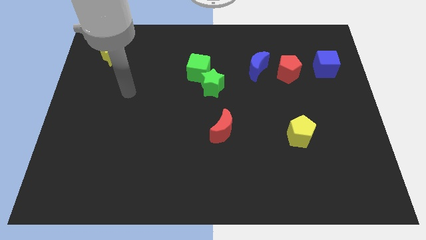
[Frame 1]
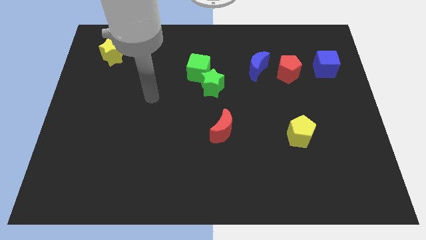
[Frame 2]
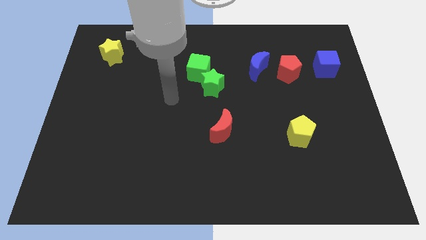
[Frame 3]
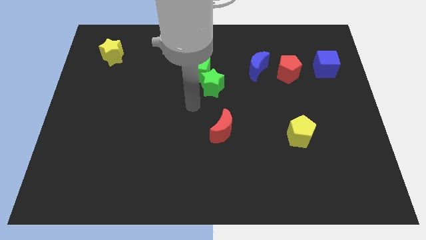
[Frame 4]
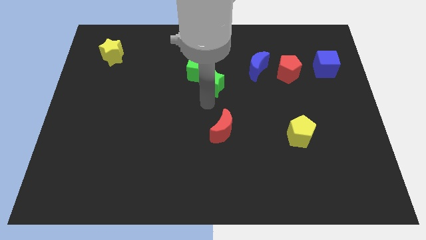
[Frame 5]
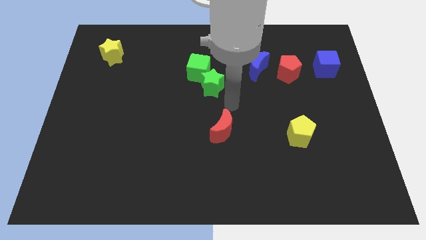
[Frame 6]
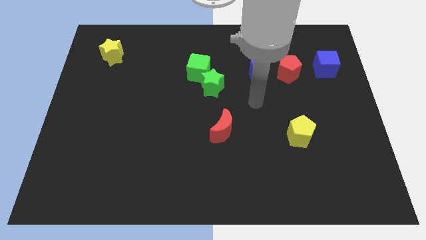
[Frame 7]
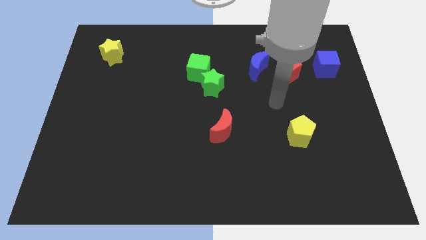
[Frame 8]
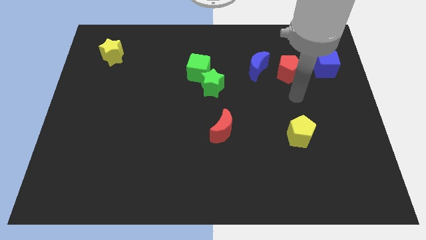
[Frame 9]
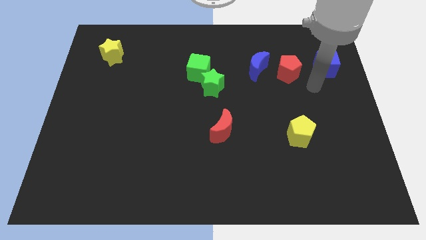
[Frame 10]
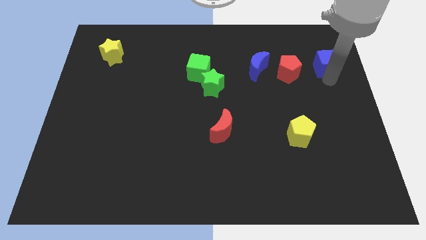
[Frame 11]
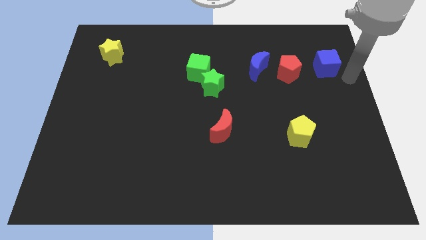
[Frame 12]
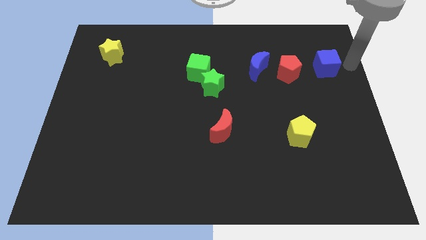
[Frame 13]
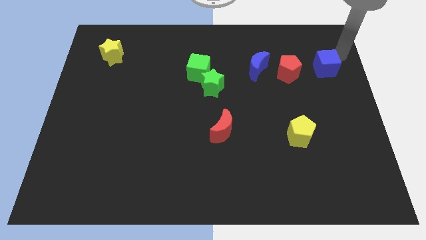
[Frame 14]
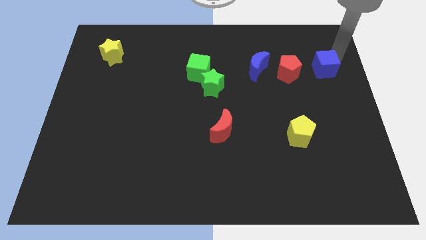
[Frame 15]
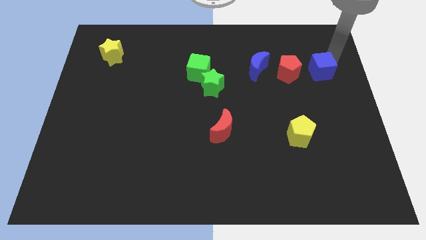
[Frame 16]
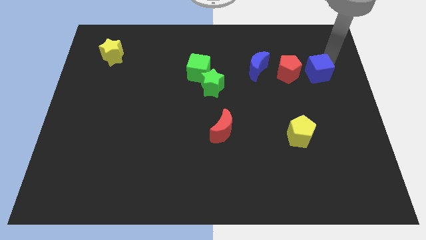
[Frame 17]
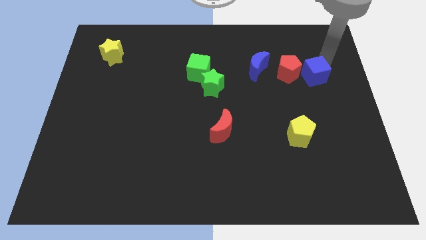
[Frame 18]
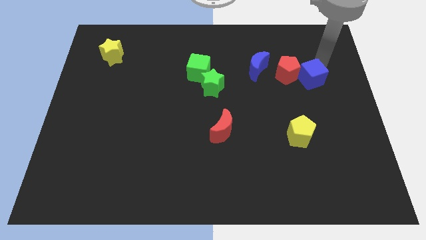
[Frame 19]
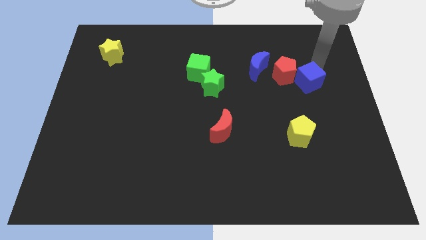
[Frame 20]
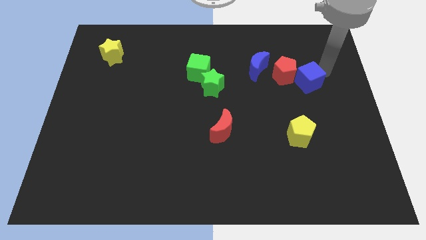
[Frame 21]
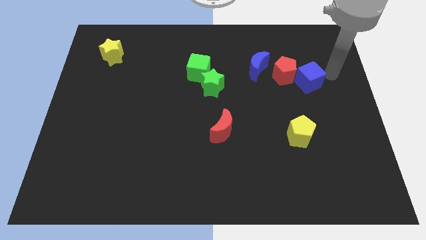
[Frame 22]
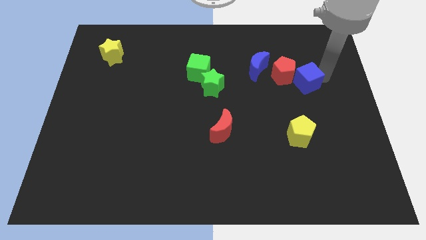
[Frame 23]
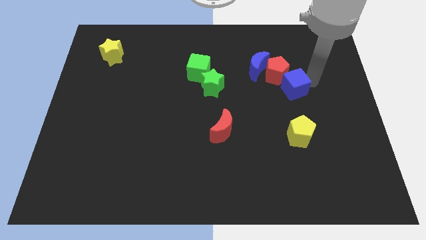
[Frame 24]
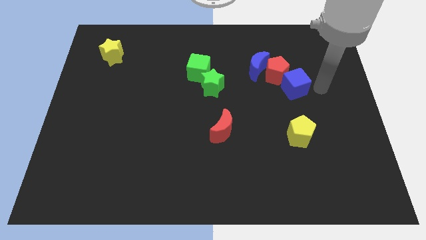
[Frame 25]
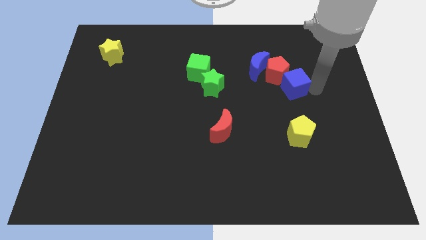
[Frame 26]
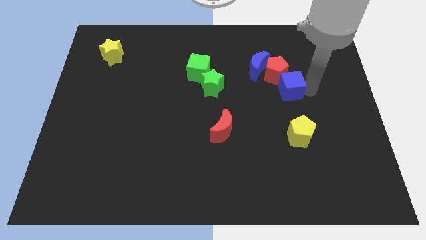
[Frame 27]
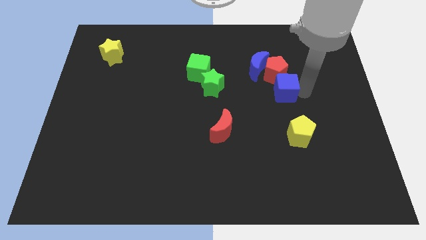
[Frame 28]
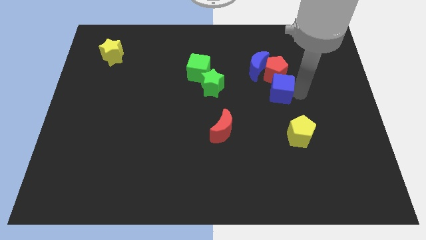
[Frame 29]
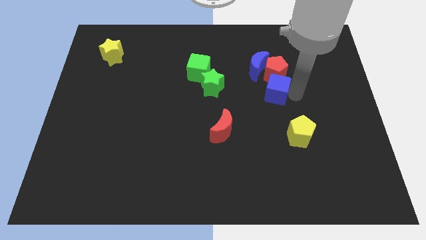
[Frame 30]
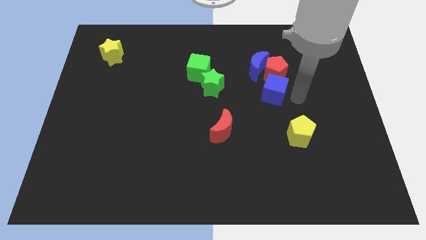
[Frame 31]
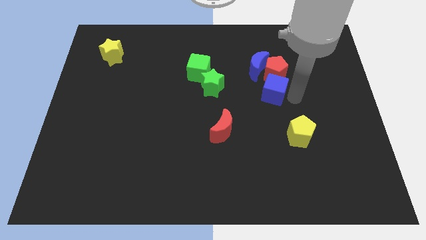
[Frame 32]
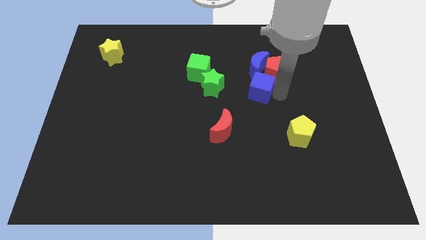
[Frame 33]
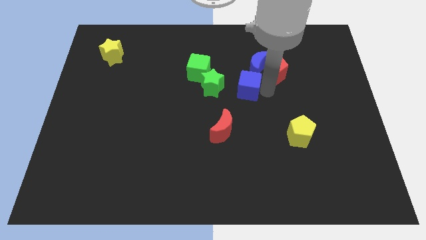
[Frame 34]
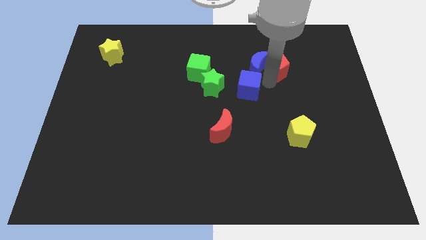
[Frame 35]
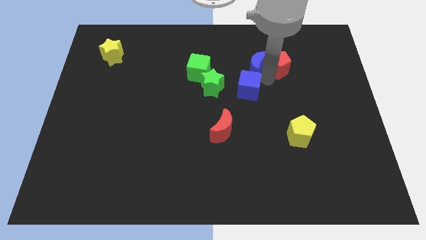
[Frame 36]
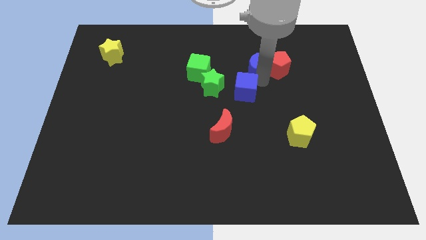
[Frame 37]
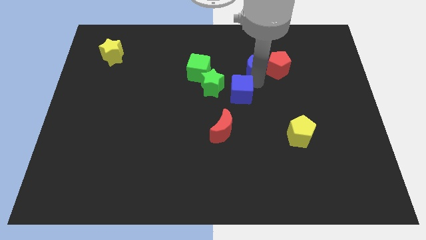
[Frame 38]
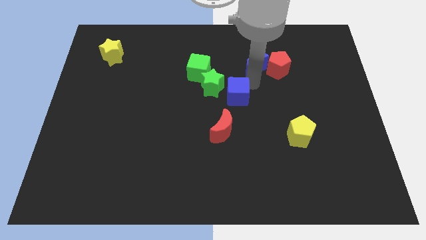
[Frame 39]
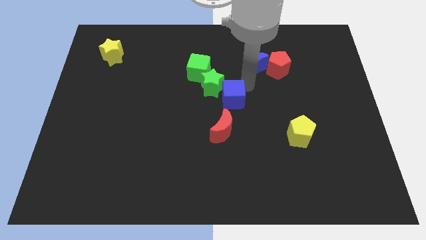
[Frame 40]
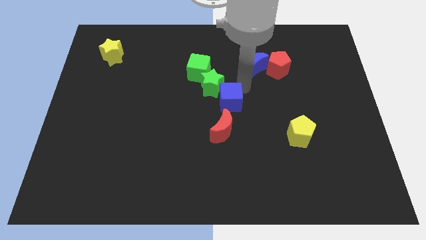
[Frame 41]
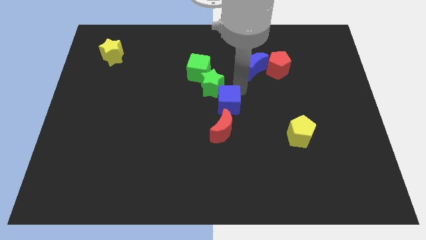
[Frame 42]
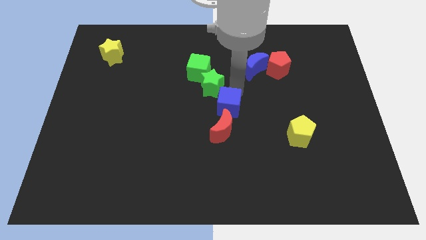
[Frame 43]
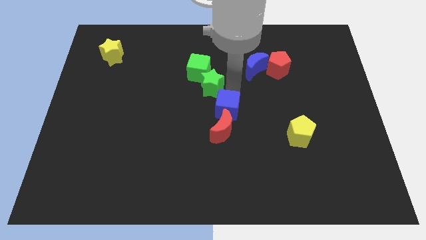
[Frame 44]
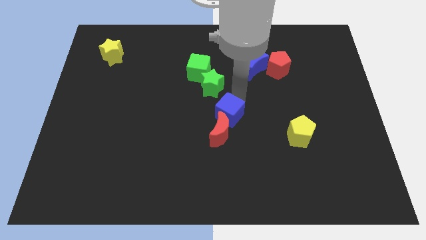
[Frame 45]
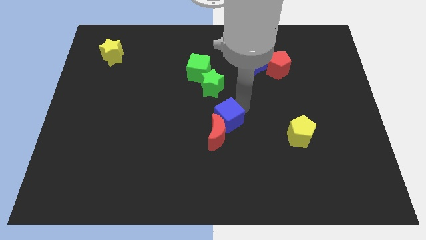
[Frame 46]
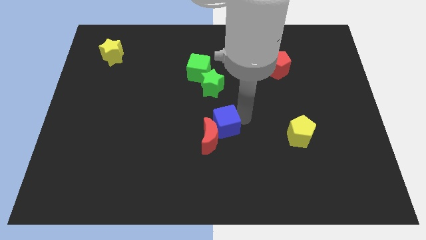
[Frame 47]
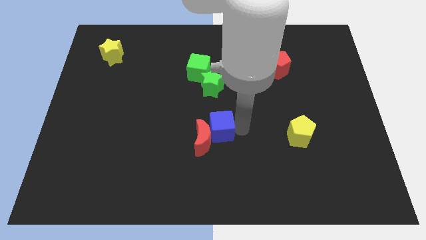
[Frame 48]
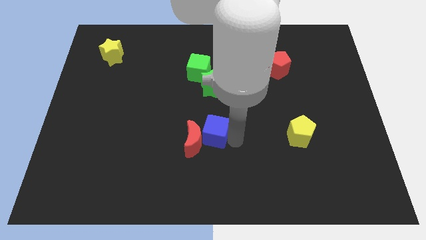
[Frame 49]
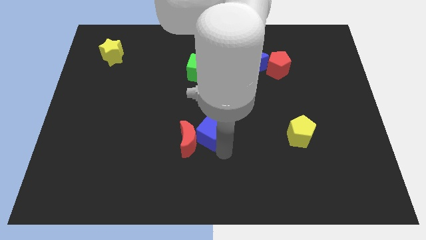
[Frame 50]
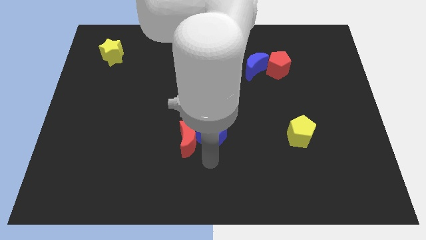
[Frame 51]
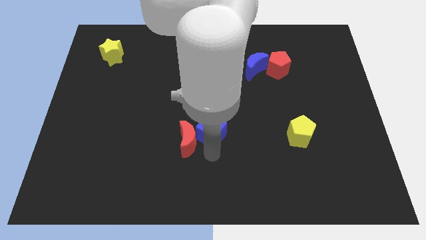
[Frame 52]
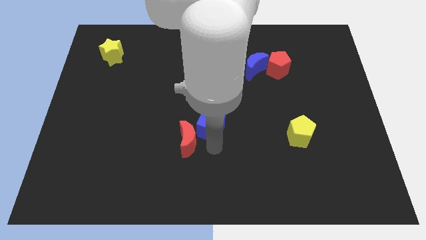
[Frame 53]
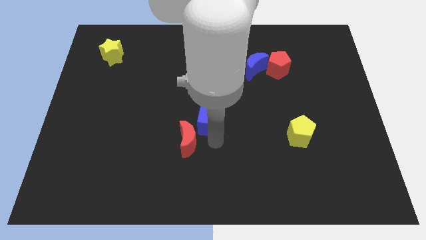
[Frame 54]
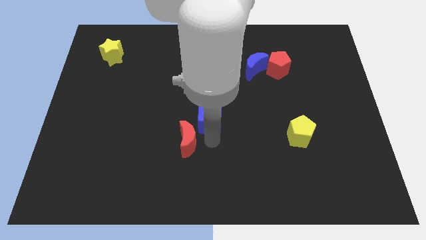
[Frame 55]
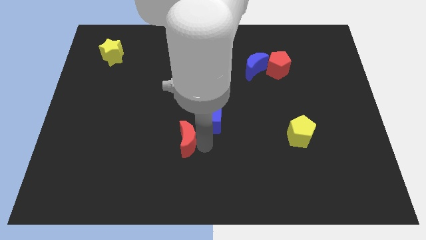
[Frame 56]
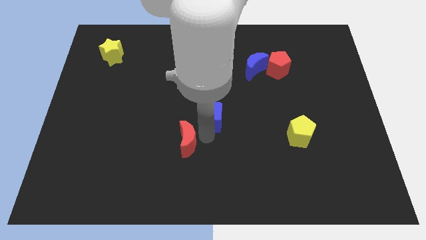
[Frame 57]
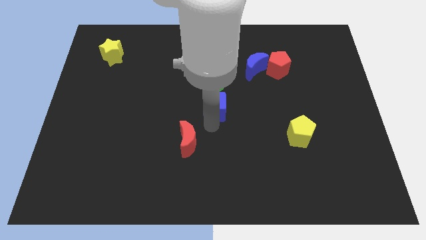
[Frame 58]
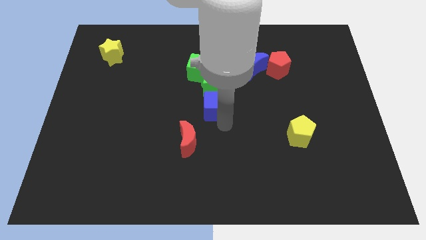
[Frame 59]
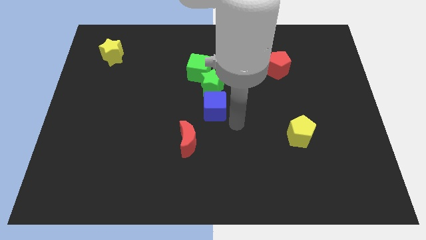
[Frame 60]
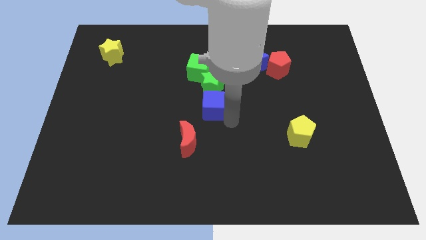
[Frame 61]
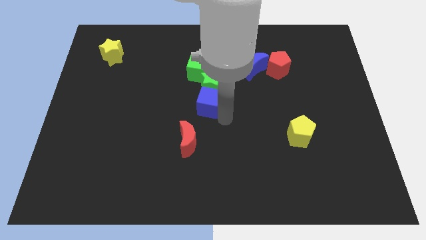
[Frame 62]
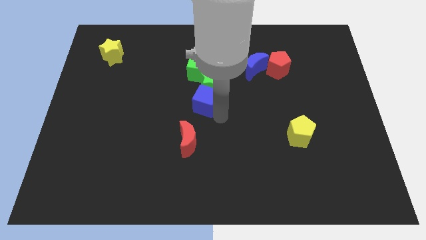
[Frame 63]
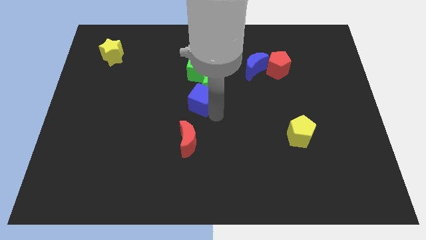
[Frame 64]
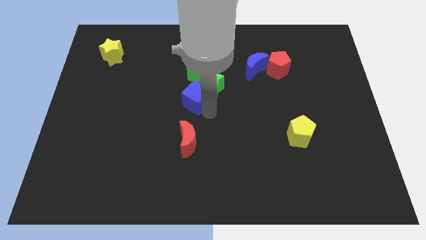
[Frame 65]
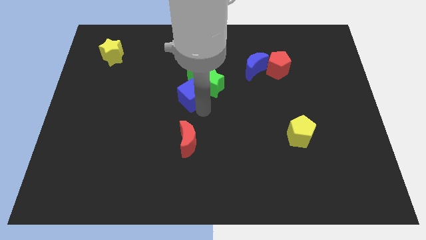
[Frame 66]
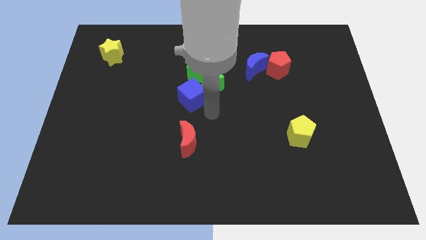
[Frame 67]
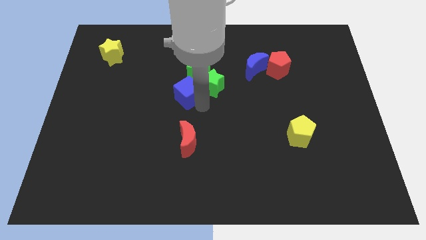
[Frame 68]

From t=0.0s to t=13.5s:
move the blue cube to the bottom left side of the green cube
